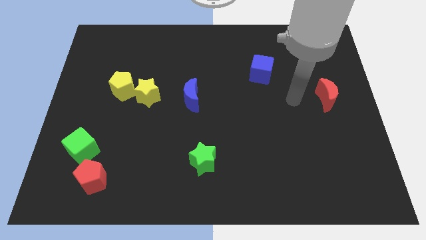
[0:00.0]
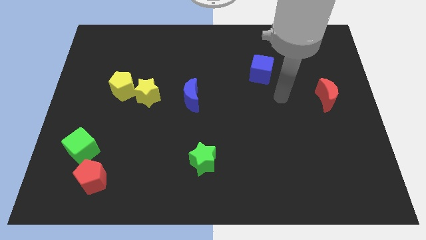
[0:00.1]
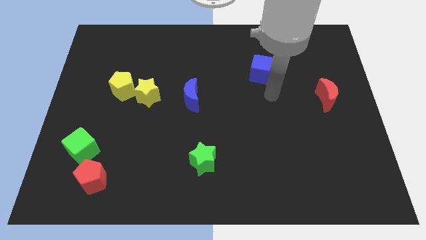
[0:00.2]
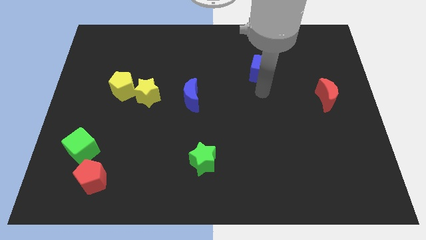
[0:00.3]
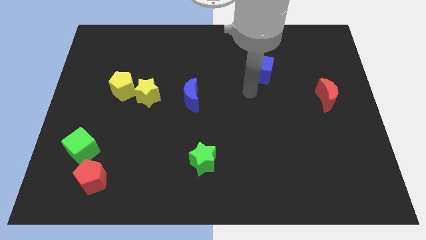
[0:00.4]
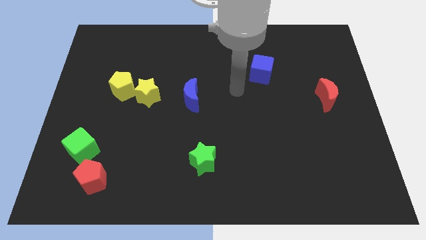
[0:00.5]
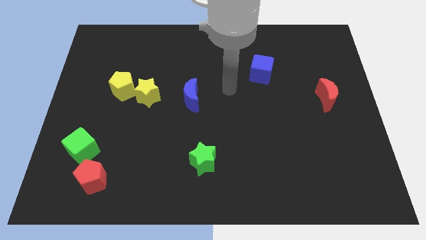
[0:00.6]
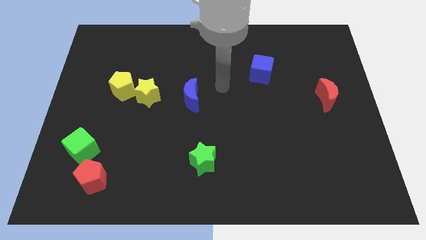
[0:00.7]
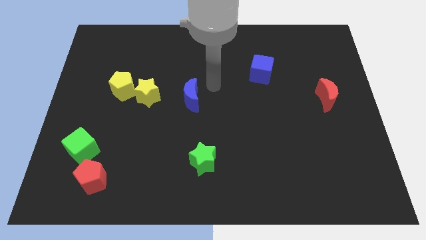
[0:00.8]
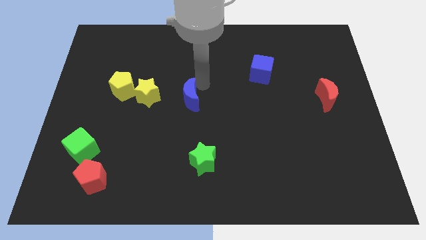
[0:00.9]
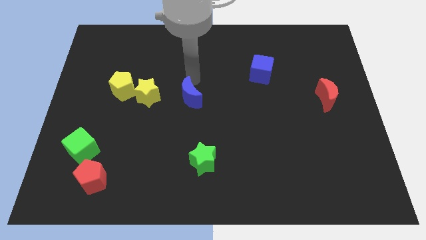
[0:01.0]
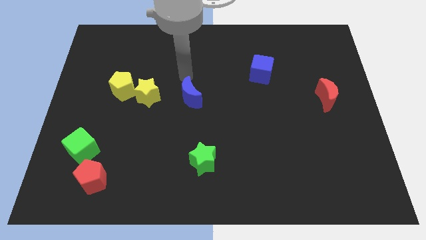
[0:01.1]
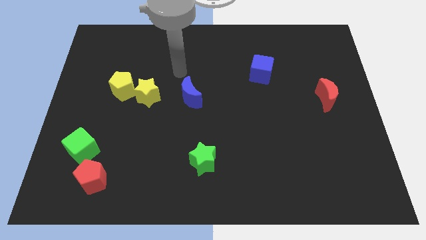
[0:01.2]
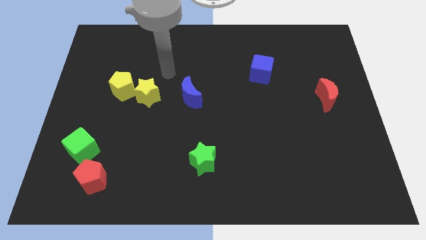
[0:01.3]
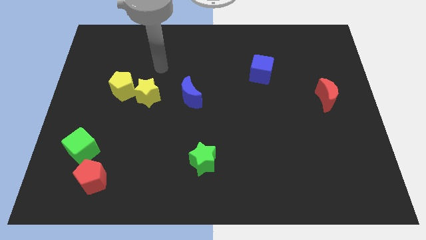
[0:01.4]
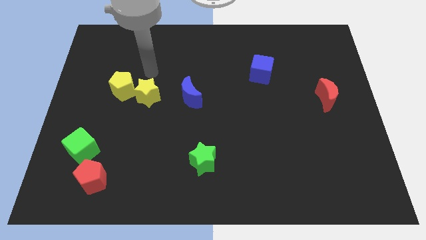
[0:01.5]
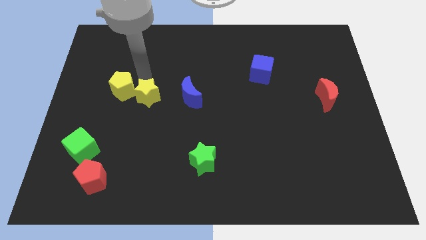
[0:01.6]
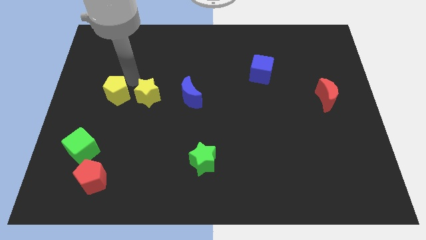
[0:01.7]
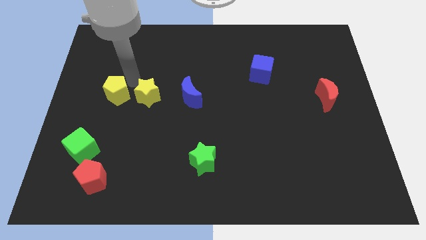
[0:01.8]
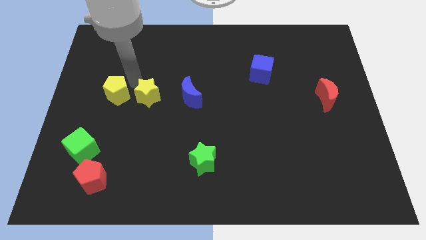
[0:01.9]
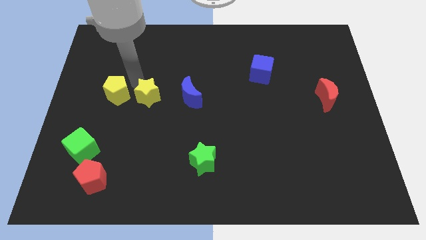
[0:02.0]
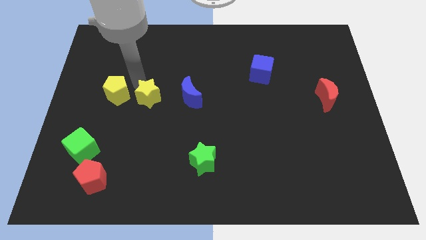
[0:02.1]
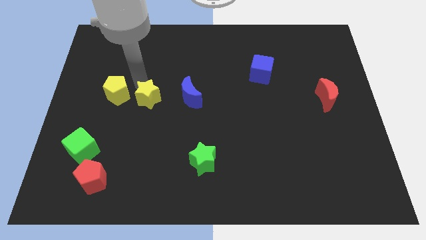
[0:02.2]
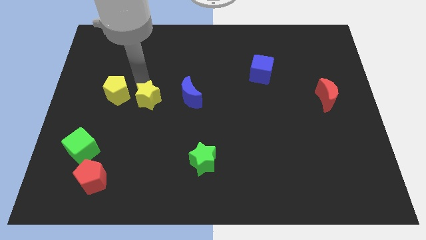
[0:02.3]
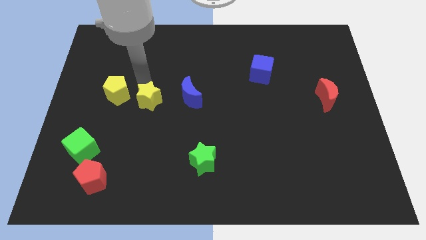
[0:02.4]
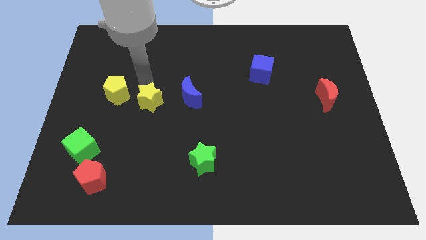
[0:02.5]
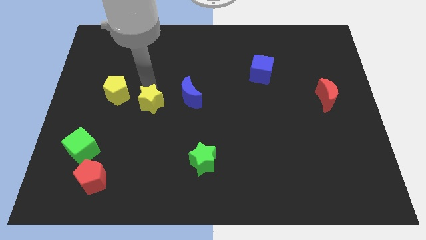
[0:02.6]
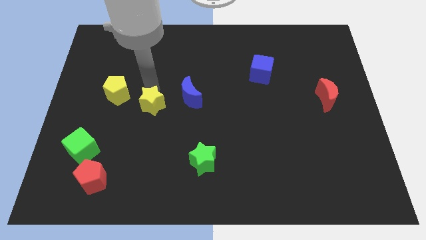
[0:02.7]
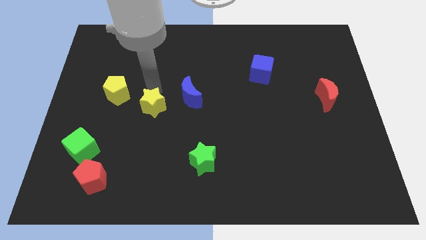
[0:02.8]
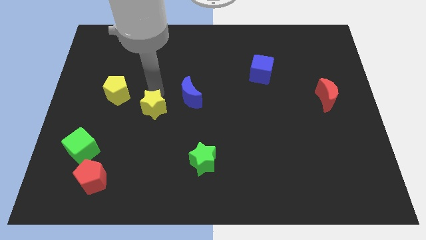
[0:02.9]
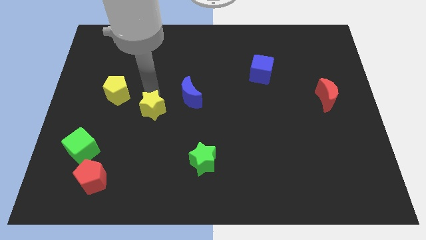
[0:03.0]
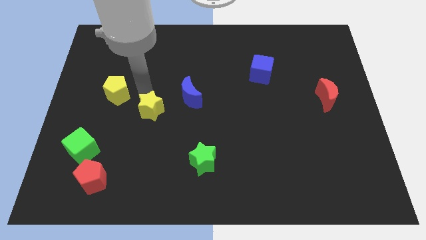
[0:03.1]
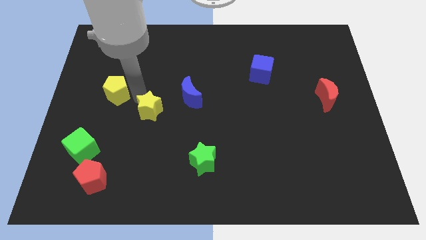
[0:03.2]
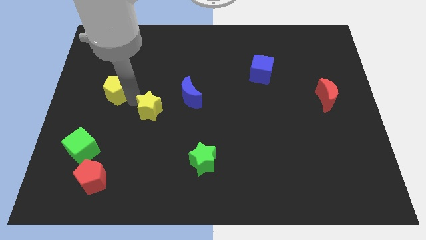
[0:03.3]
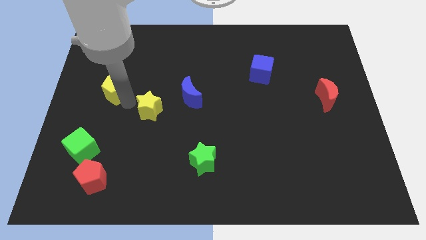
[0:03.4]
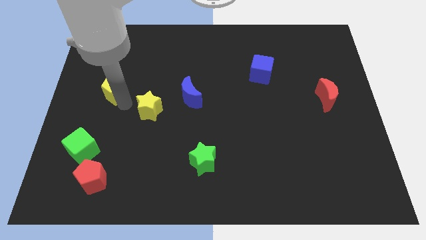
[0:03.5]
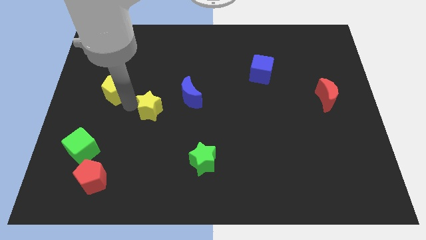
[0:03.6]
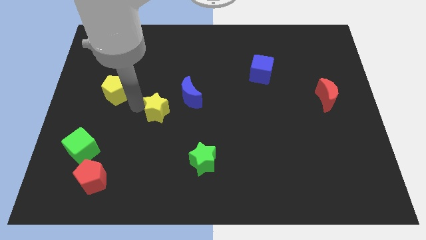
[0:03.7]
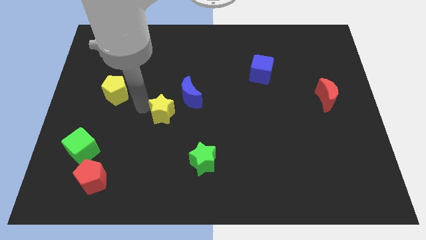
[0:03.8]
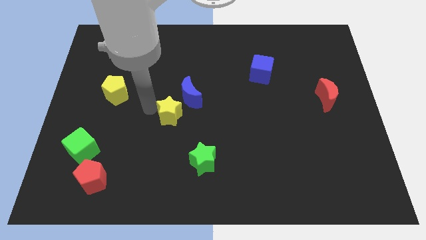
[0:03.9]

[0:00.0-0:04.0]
slightly move the yellow star downwards and right

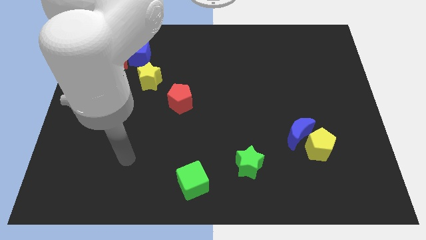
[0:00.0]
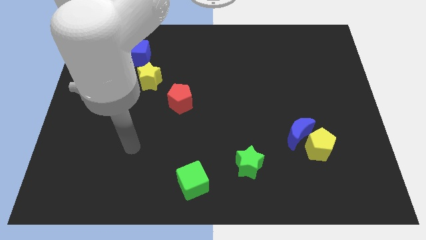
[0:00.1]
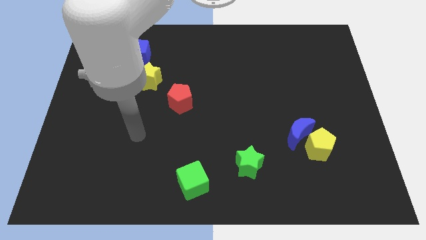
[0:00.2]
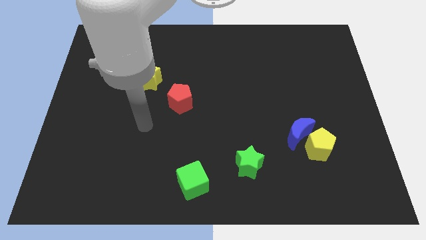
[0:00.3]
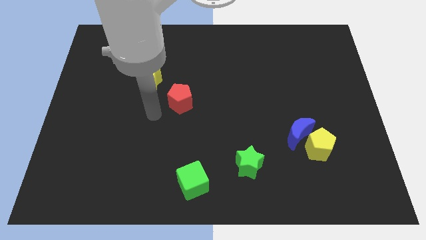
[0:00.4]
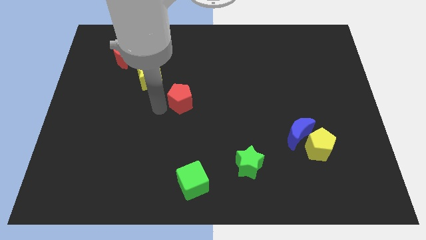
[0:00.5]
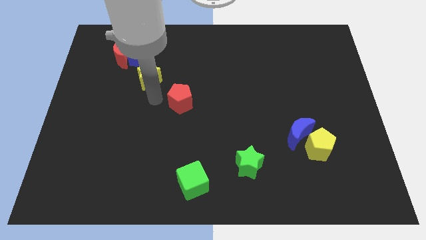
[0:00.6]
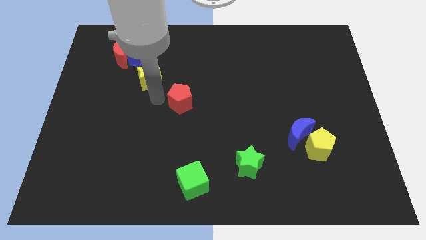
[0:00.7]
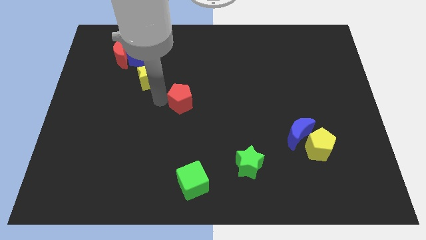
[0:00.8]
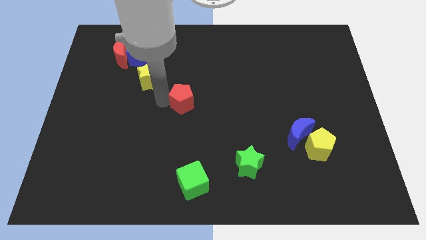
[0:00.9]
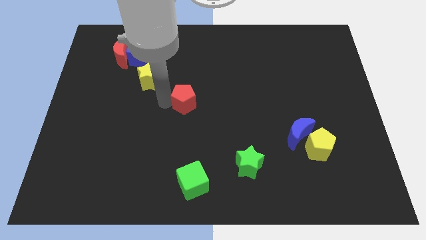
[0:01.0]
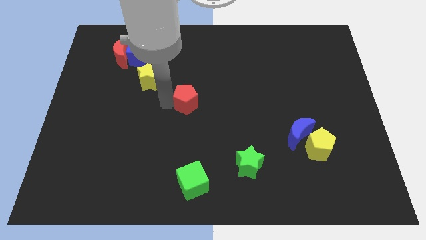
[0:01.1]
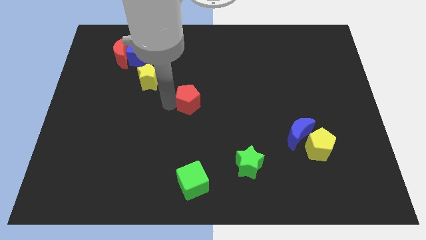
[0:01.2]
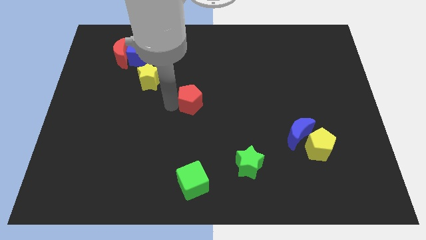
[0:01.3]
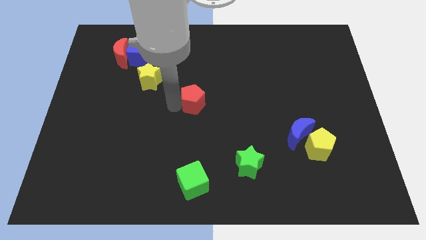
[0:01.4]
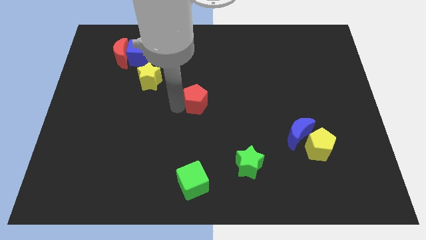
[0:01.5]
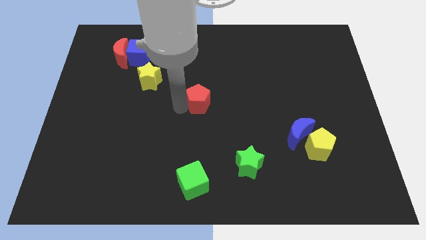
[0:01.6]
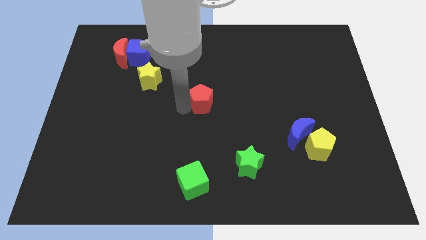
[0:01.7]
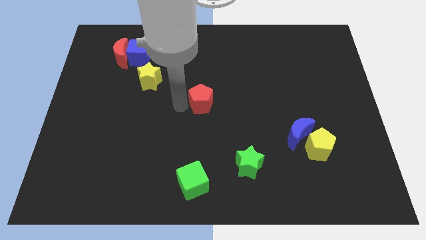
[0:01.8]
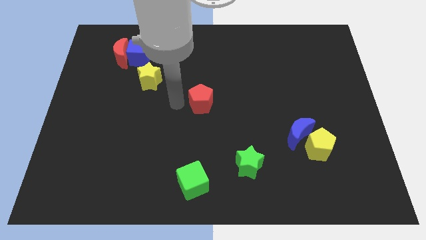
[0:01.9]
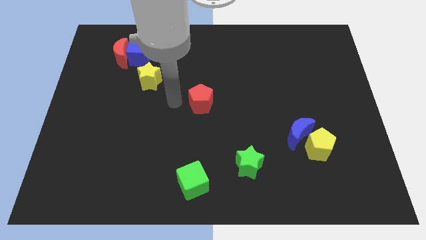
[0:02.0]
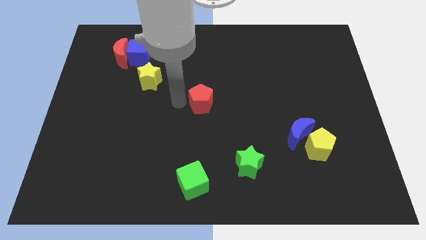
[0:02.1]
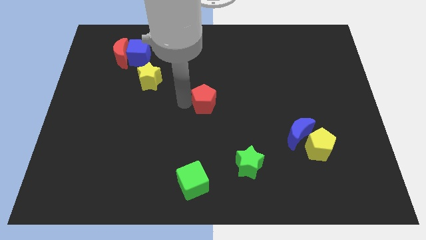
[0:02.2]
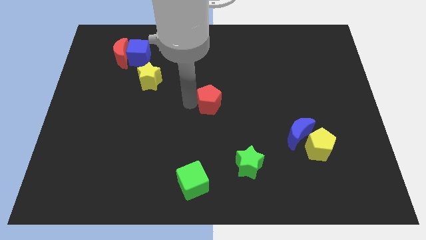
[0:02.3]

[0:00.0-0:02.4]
move the red pentagon slightly to the right

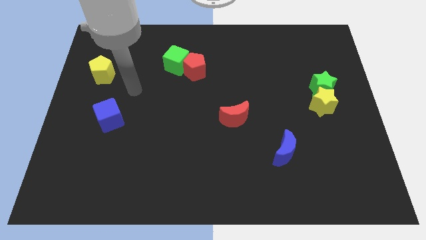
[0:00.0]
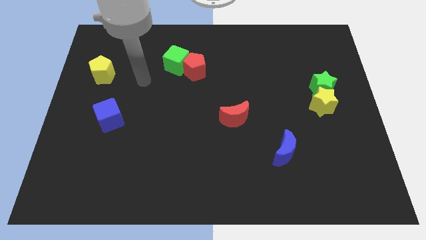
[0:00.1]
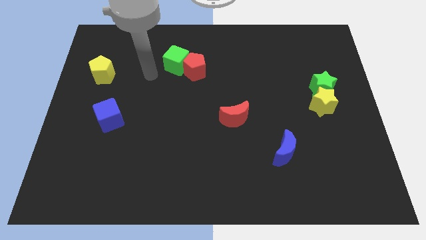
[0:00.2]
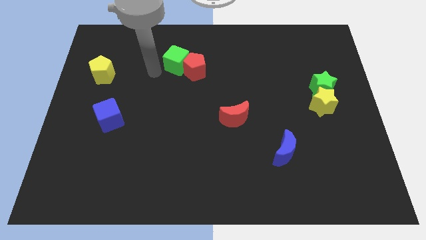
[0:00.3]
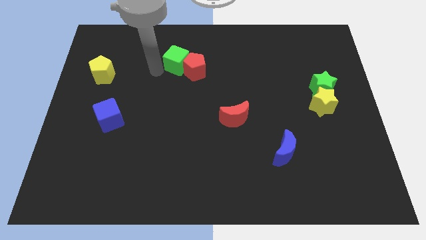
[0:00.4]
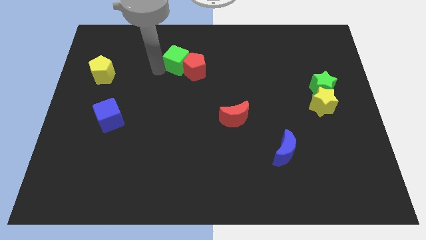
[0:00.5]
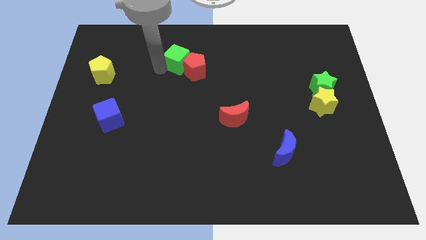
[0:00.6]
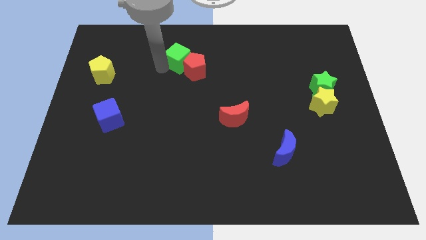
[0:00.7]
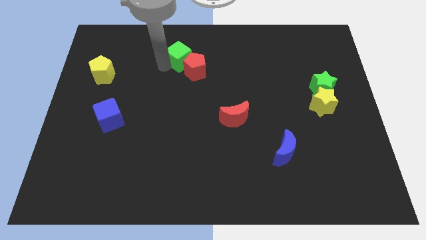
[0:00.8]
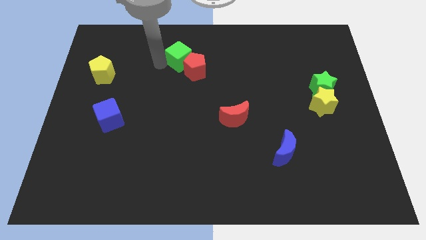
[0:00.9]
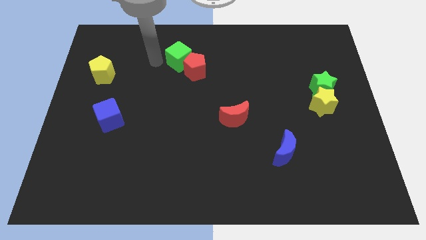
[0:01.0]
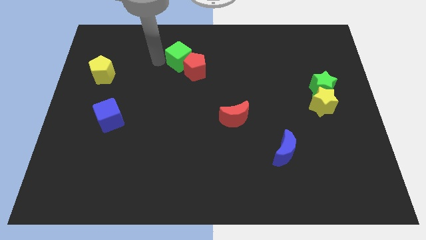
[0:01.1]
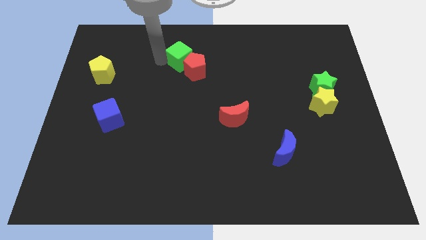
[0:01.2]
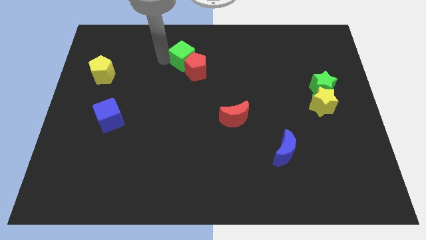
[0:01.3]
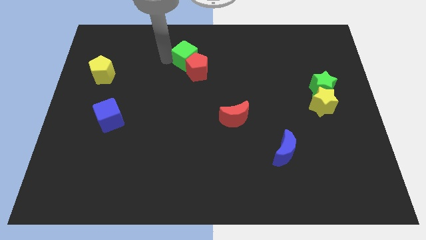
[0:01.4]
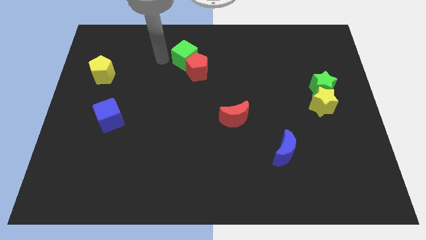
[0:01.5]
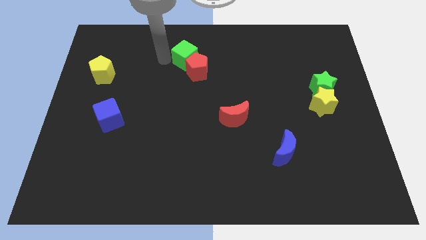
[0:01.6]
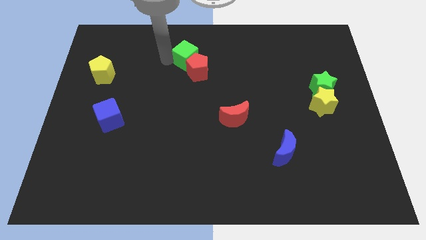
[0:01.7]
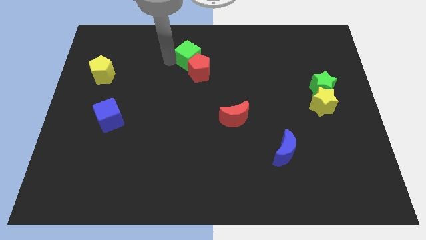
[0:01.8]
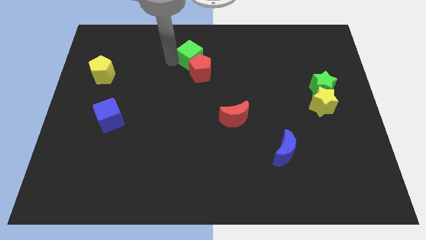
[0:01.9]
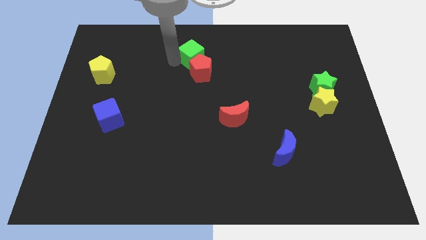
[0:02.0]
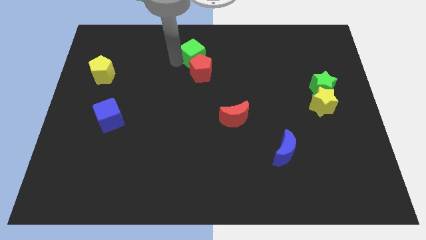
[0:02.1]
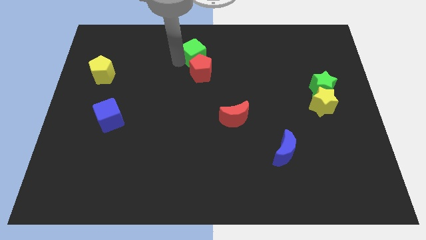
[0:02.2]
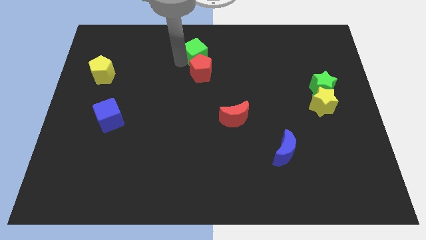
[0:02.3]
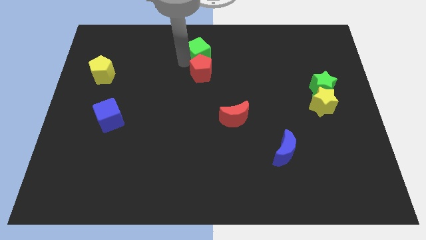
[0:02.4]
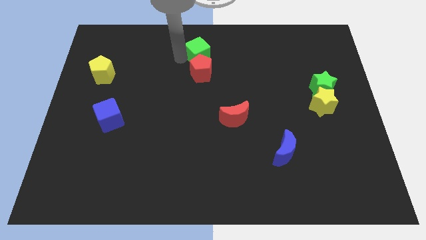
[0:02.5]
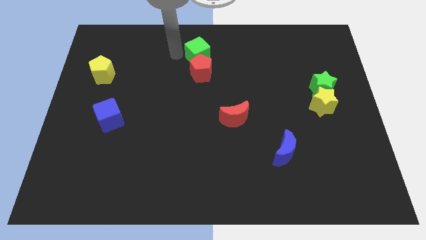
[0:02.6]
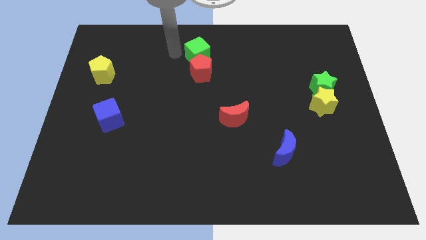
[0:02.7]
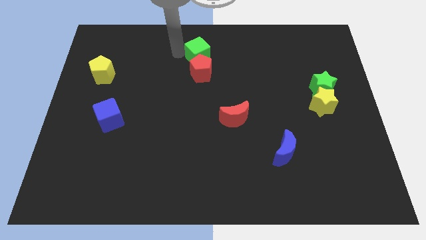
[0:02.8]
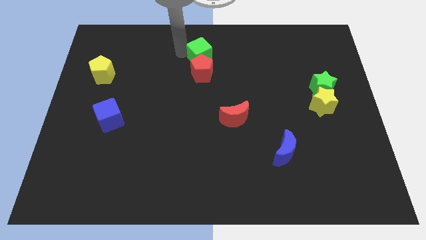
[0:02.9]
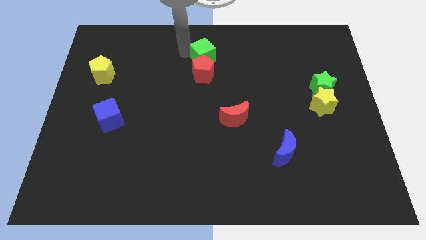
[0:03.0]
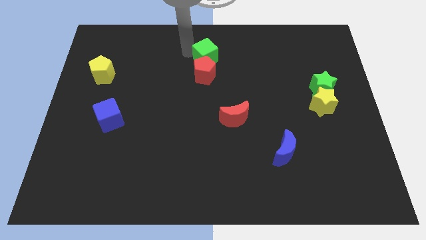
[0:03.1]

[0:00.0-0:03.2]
slightly push the green cube right
